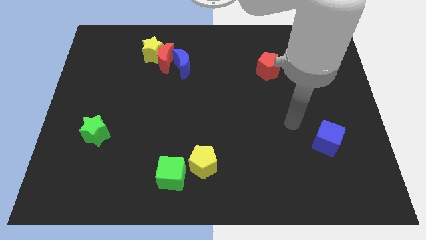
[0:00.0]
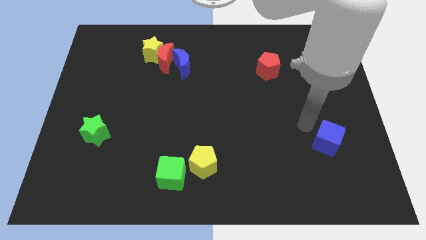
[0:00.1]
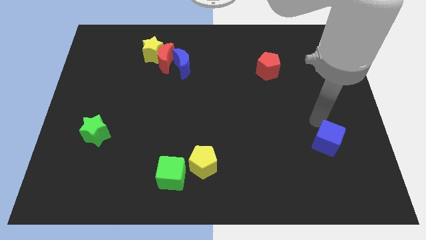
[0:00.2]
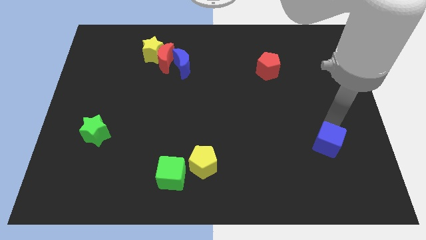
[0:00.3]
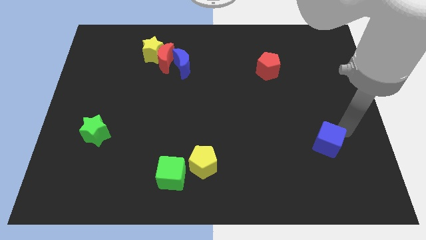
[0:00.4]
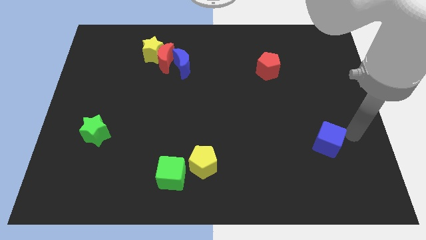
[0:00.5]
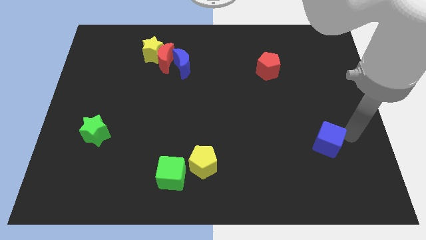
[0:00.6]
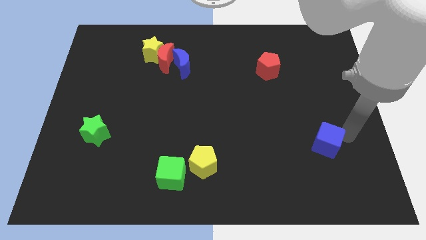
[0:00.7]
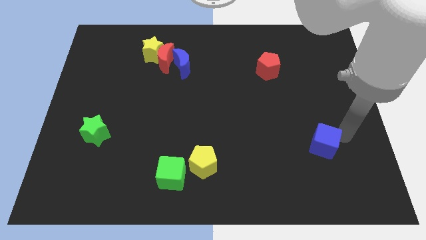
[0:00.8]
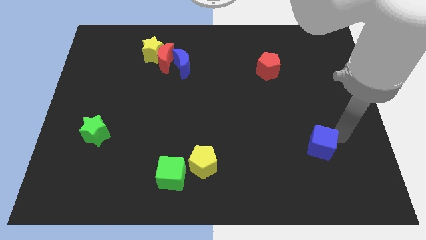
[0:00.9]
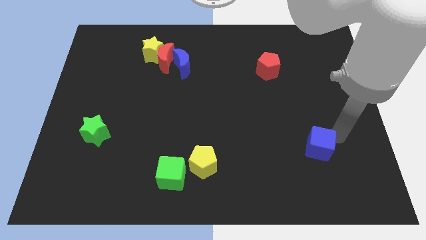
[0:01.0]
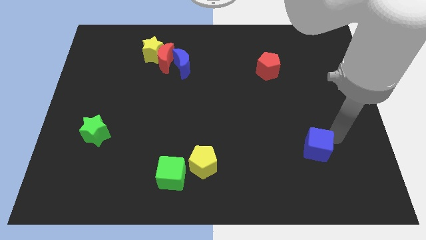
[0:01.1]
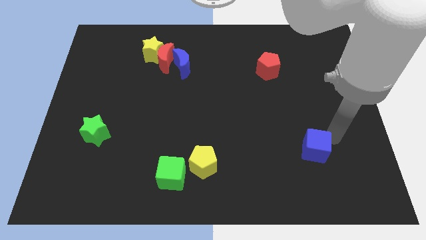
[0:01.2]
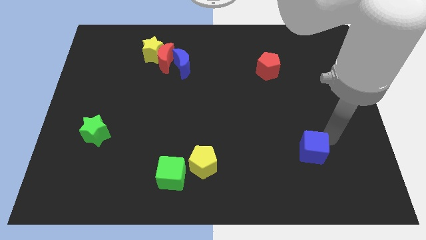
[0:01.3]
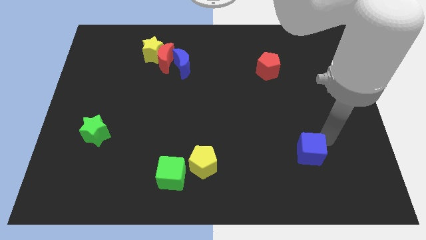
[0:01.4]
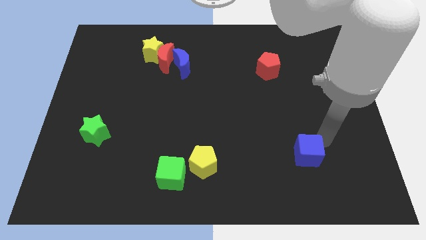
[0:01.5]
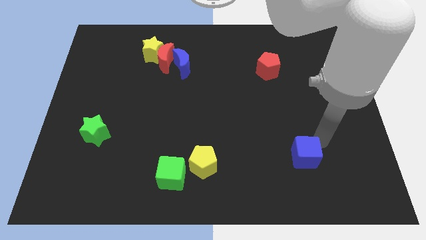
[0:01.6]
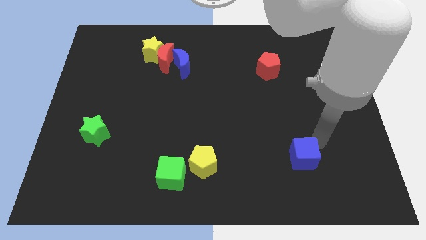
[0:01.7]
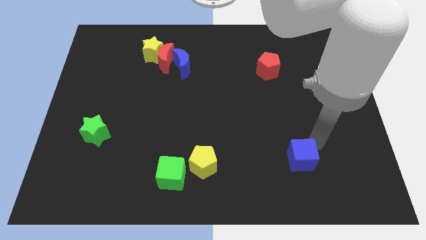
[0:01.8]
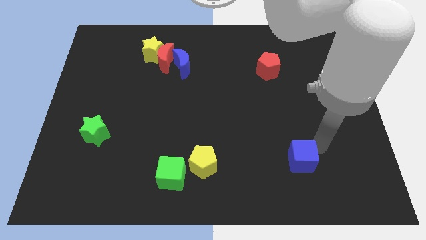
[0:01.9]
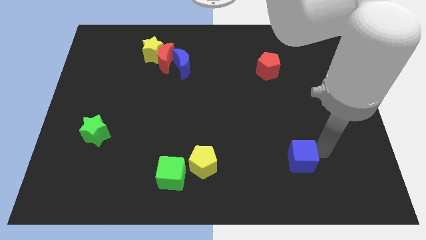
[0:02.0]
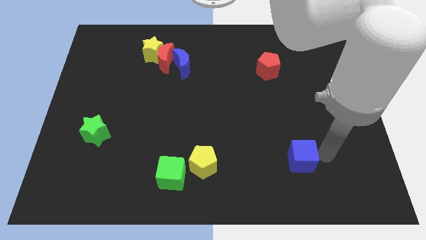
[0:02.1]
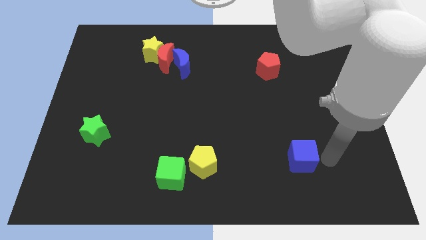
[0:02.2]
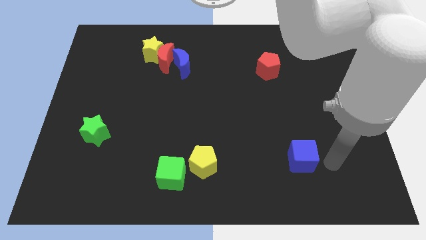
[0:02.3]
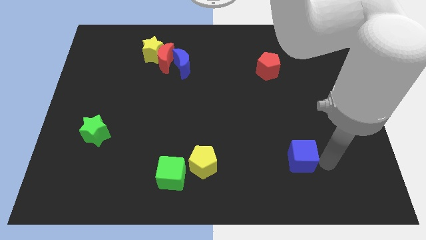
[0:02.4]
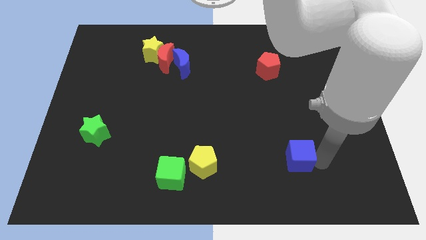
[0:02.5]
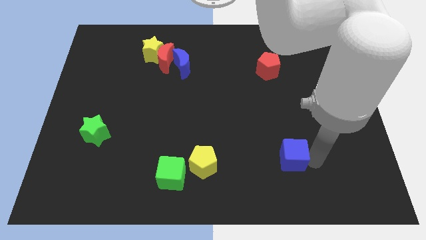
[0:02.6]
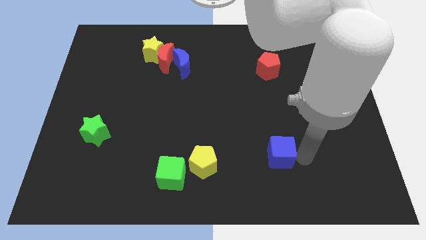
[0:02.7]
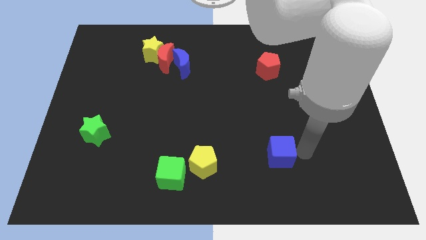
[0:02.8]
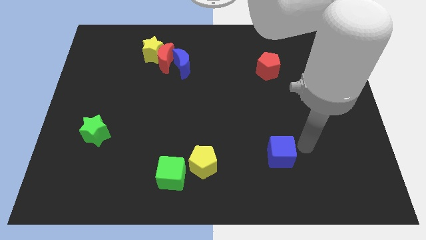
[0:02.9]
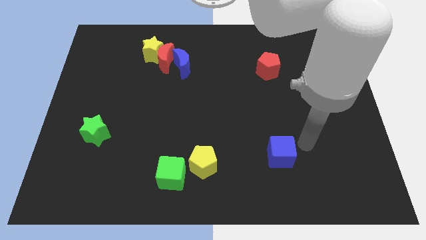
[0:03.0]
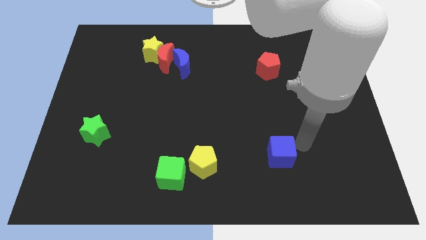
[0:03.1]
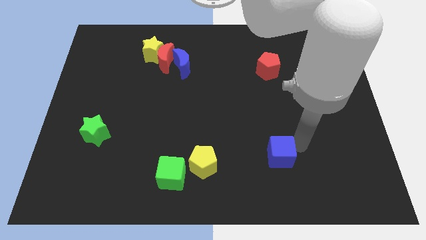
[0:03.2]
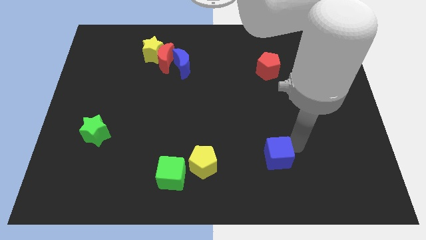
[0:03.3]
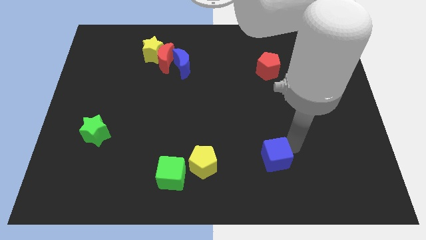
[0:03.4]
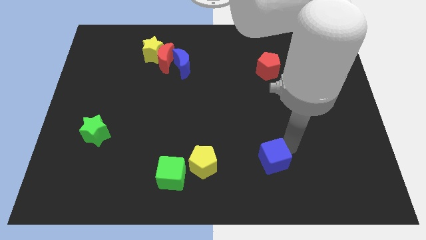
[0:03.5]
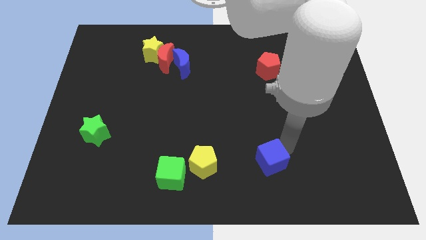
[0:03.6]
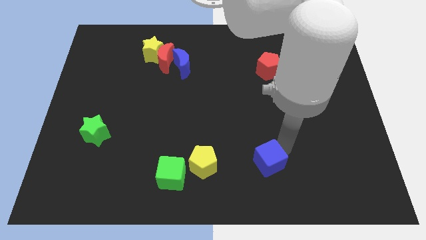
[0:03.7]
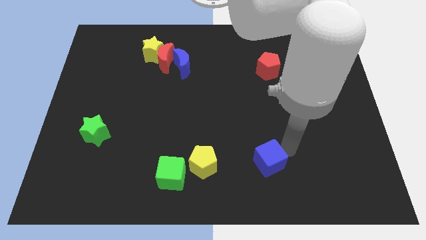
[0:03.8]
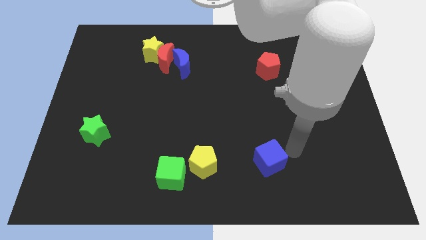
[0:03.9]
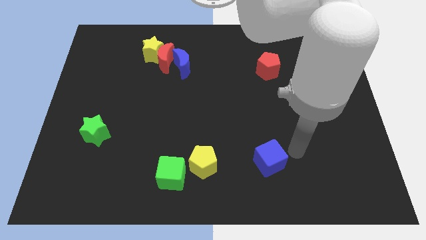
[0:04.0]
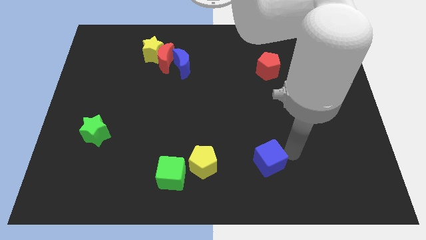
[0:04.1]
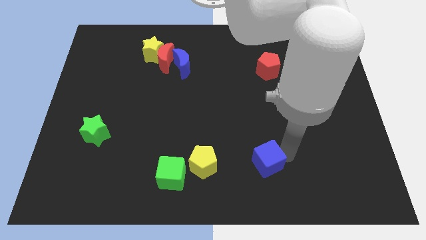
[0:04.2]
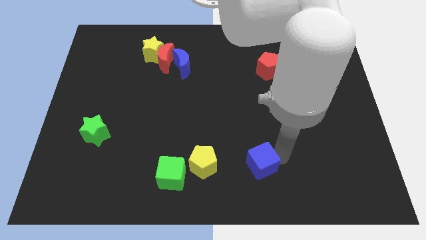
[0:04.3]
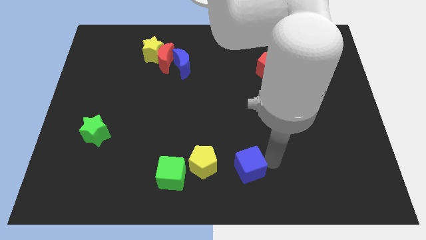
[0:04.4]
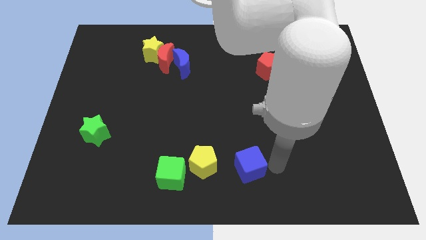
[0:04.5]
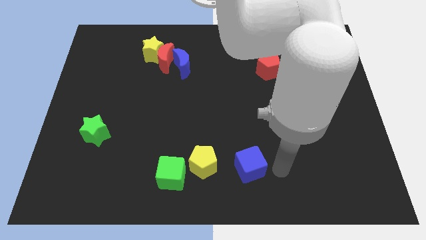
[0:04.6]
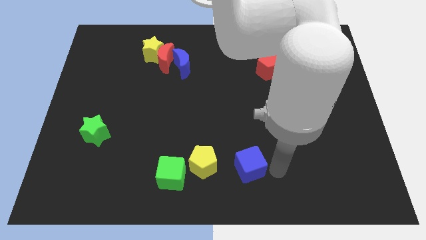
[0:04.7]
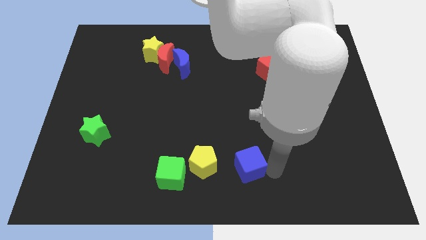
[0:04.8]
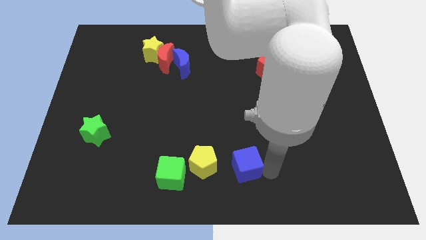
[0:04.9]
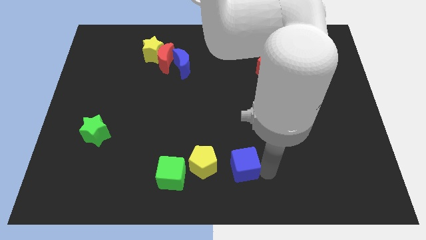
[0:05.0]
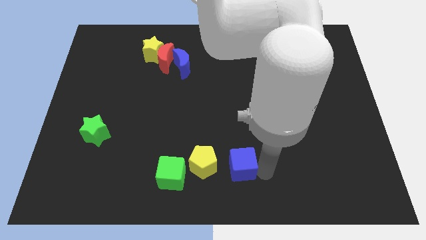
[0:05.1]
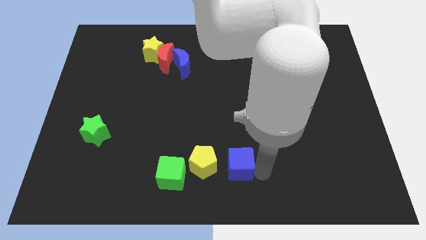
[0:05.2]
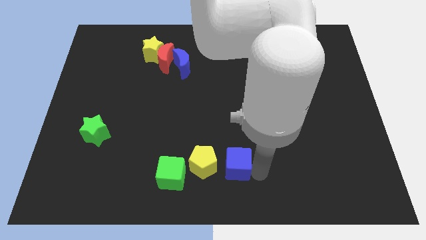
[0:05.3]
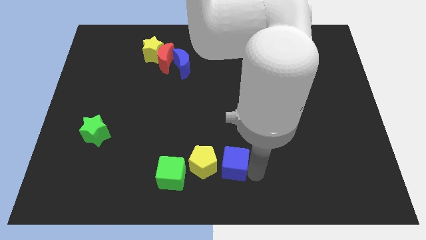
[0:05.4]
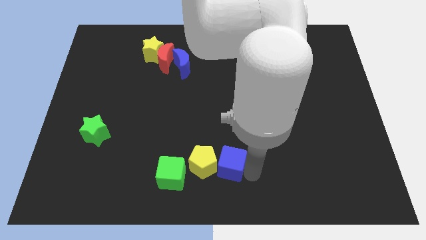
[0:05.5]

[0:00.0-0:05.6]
move the blue cube towards the yellow pentagon

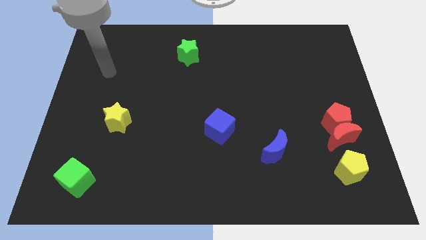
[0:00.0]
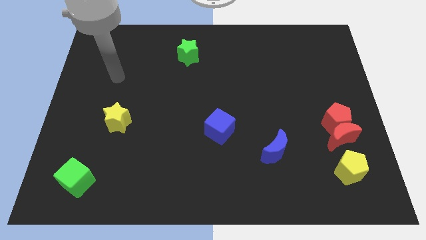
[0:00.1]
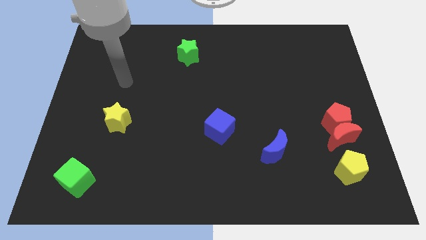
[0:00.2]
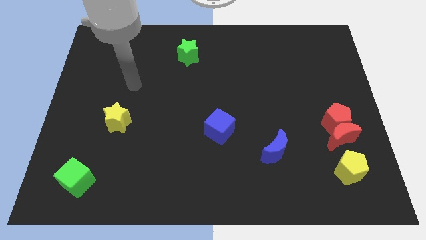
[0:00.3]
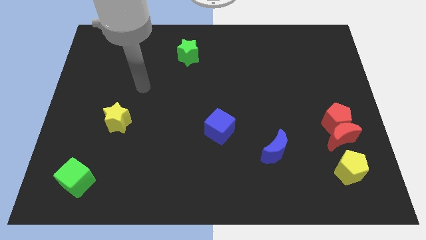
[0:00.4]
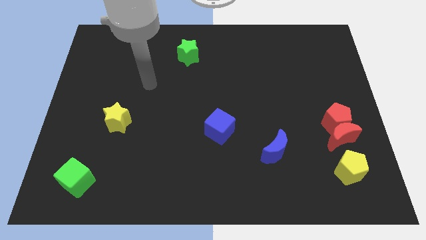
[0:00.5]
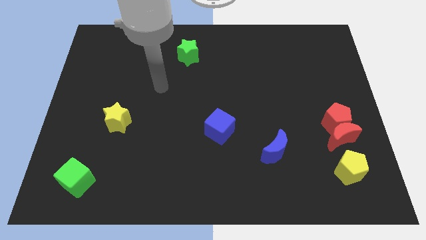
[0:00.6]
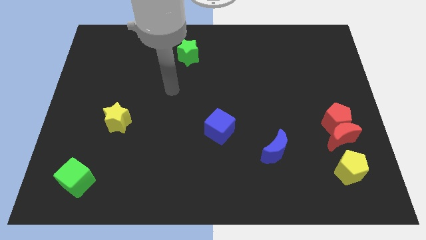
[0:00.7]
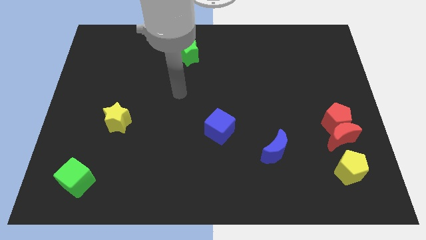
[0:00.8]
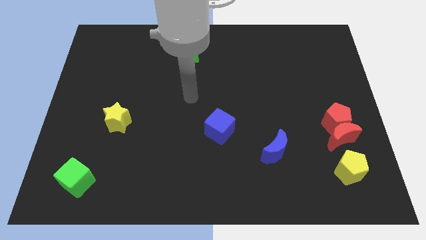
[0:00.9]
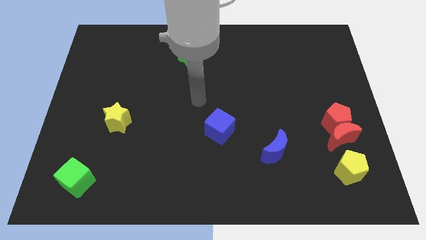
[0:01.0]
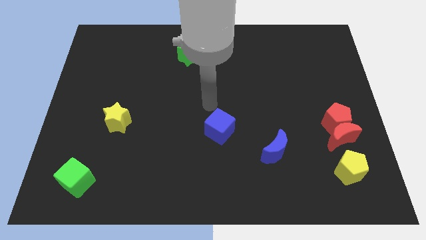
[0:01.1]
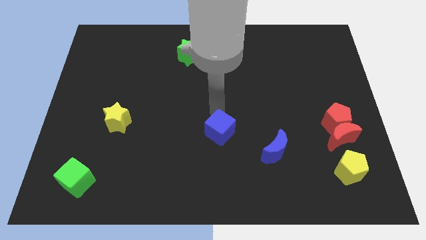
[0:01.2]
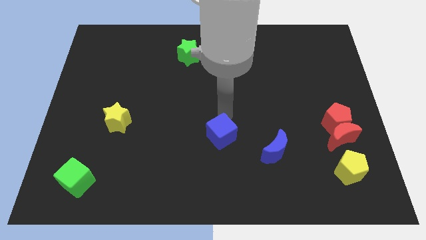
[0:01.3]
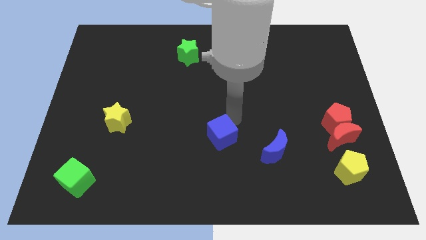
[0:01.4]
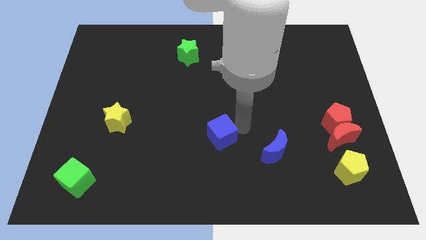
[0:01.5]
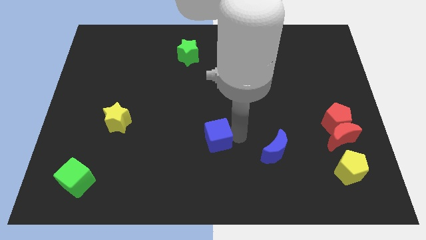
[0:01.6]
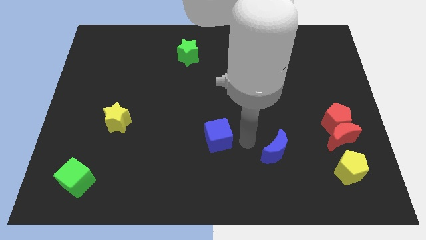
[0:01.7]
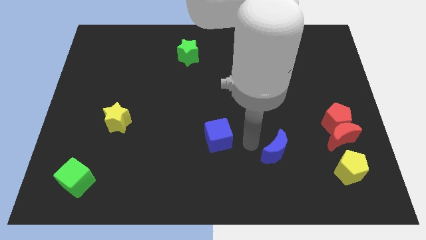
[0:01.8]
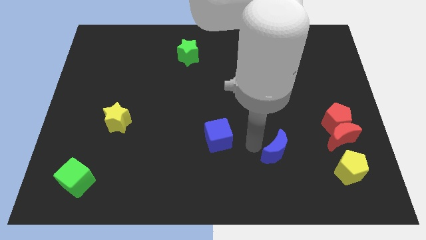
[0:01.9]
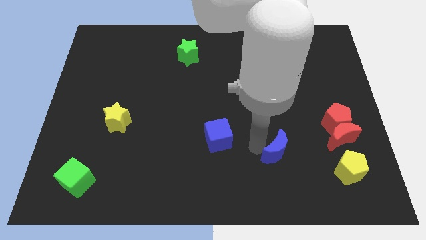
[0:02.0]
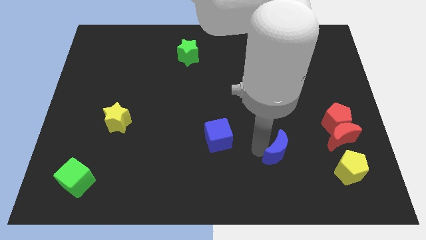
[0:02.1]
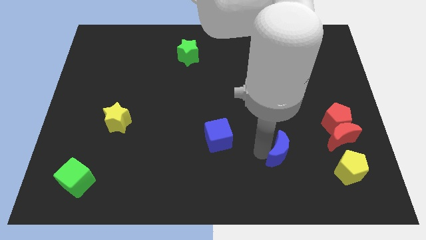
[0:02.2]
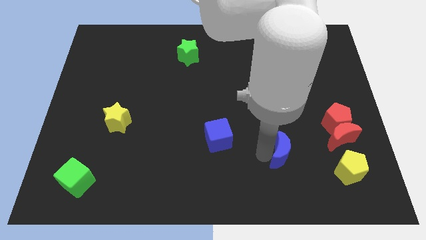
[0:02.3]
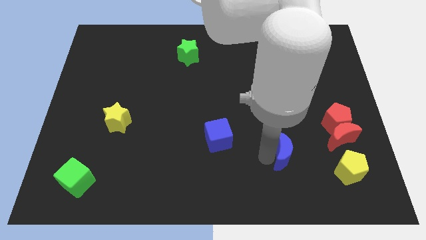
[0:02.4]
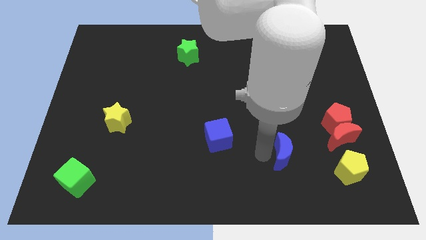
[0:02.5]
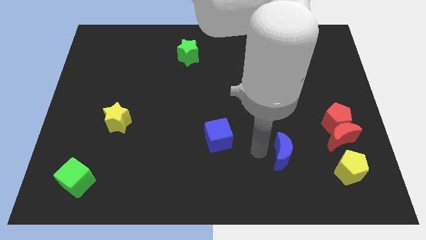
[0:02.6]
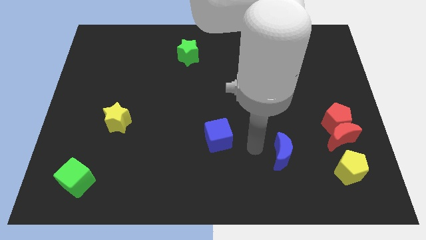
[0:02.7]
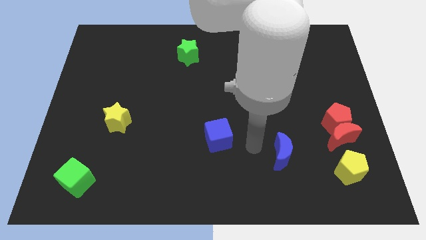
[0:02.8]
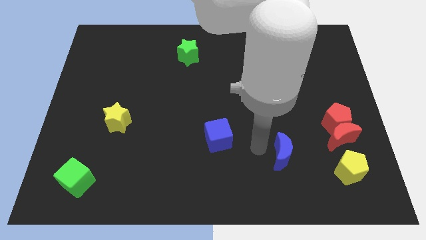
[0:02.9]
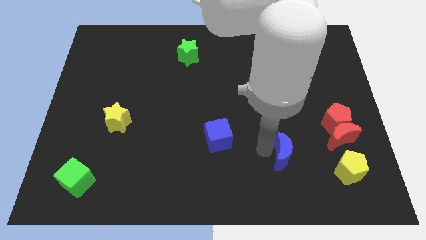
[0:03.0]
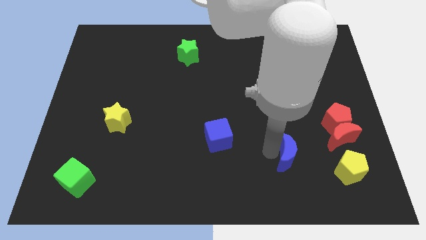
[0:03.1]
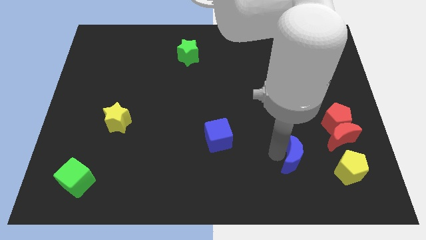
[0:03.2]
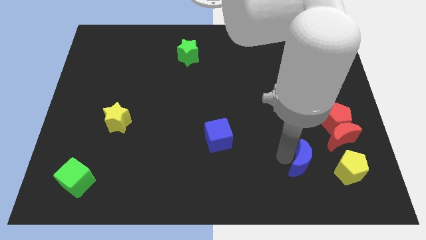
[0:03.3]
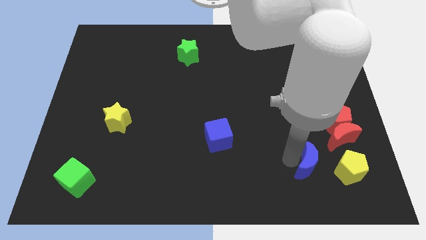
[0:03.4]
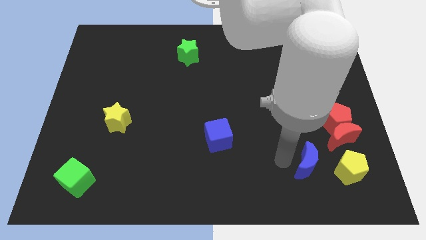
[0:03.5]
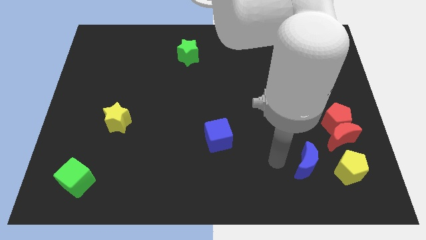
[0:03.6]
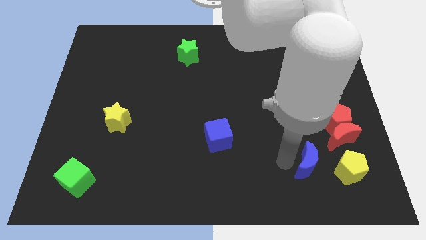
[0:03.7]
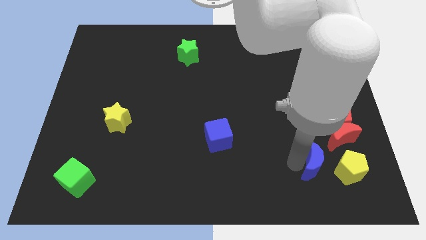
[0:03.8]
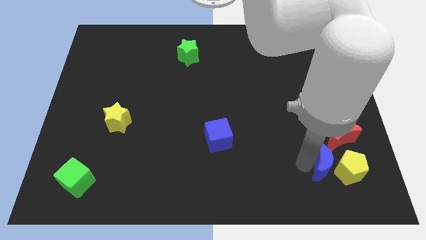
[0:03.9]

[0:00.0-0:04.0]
slide the blue moon to the yellow pentagon
